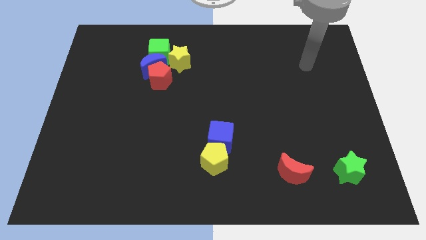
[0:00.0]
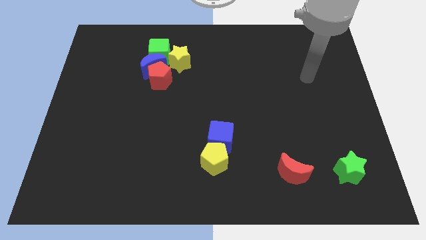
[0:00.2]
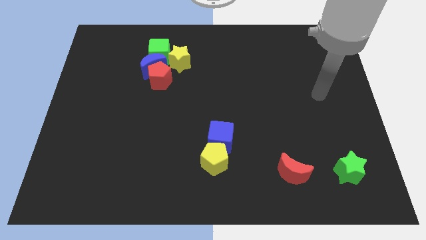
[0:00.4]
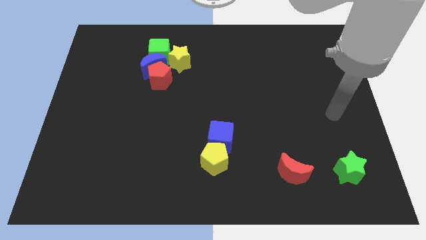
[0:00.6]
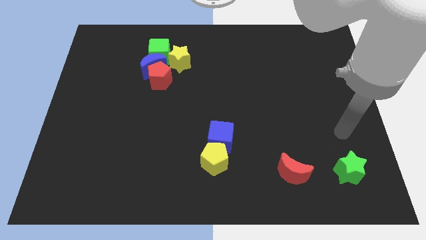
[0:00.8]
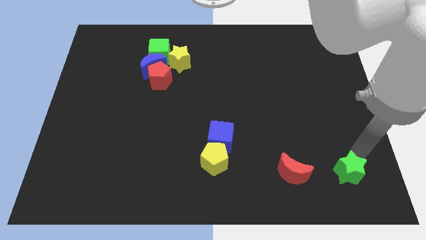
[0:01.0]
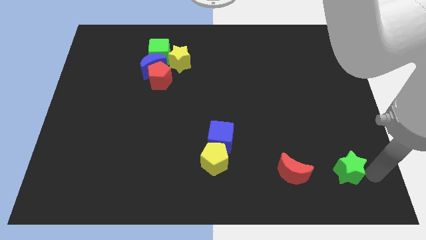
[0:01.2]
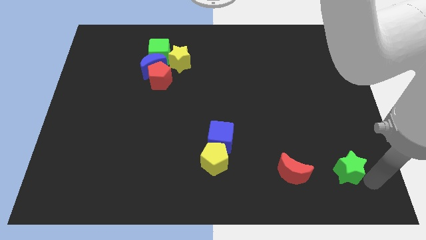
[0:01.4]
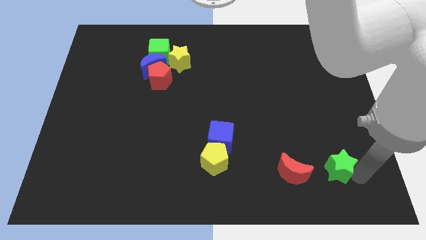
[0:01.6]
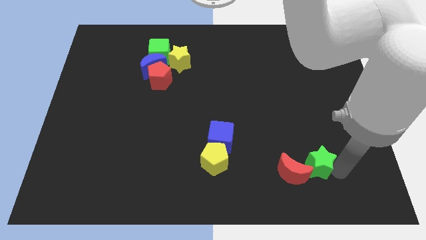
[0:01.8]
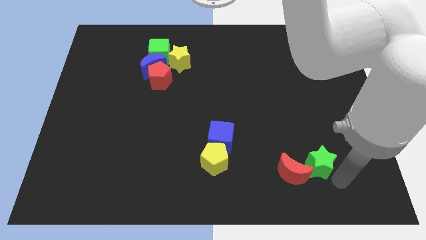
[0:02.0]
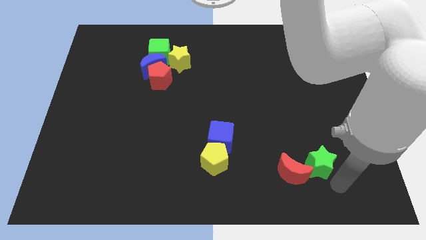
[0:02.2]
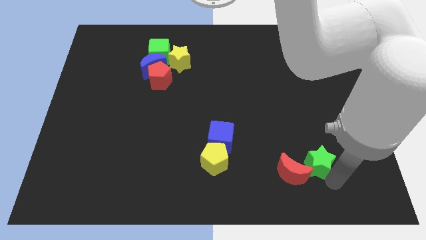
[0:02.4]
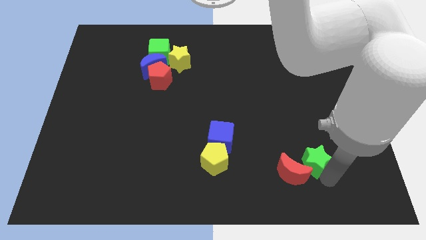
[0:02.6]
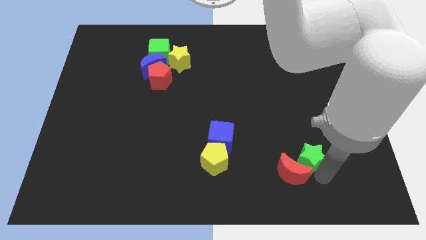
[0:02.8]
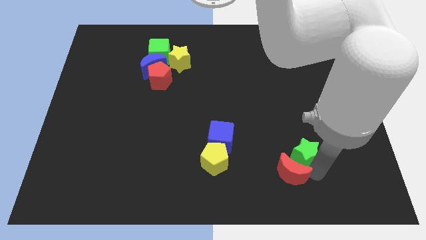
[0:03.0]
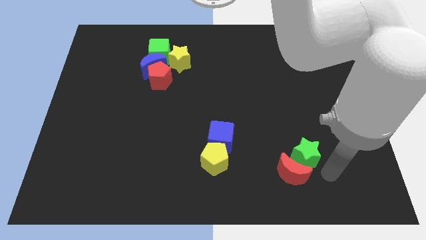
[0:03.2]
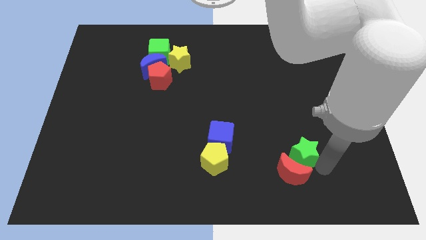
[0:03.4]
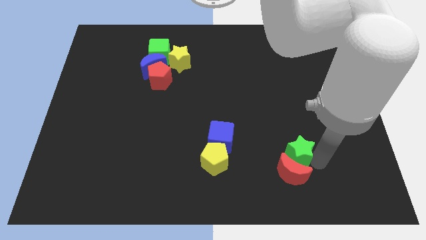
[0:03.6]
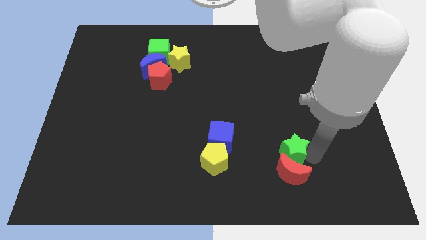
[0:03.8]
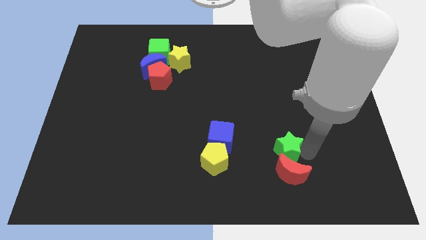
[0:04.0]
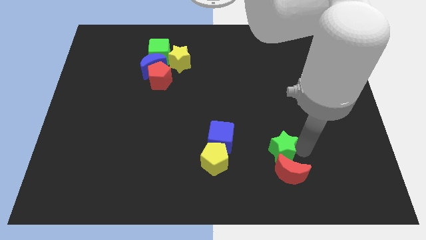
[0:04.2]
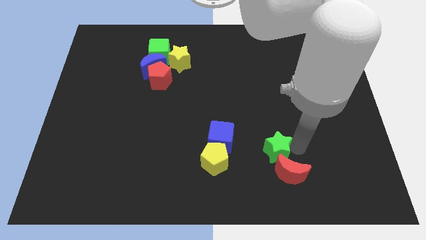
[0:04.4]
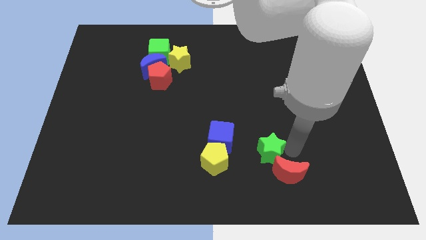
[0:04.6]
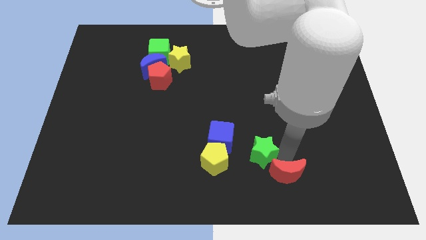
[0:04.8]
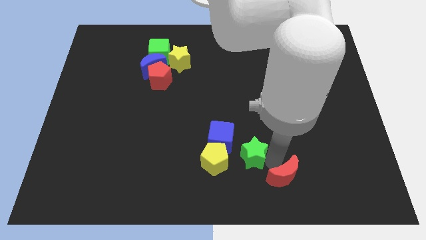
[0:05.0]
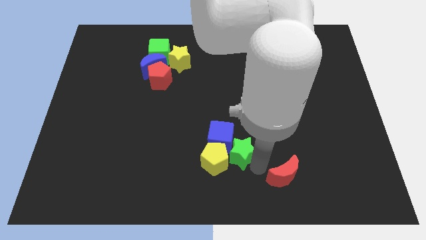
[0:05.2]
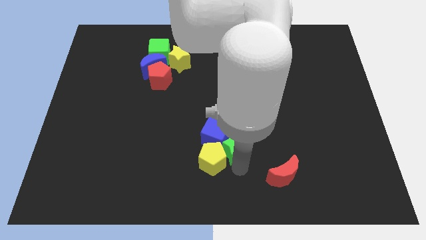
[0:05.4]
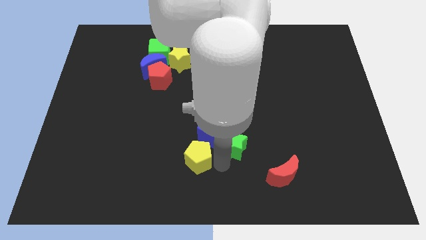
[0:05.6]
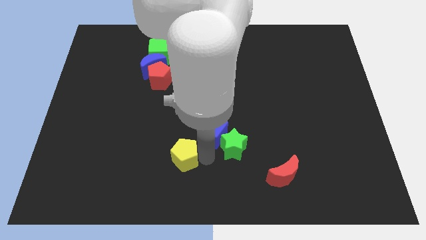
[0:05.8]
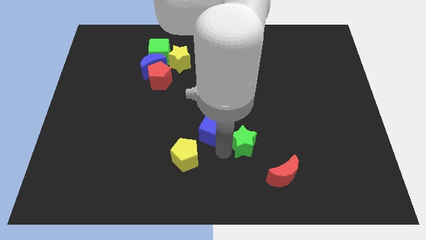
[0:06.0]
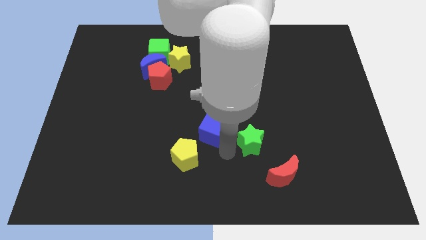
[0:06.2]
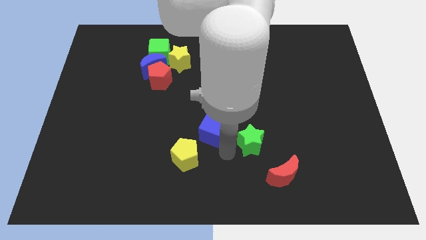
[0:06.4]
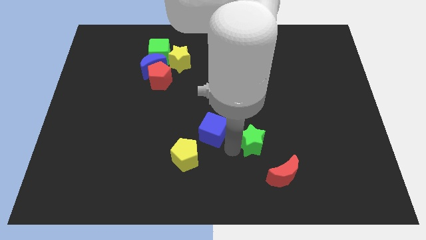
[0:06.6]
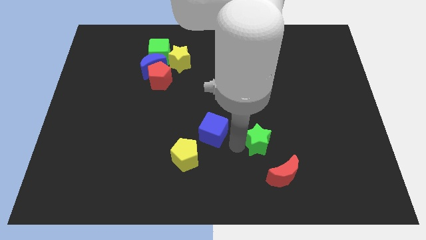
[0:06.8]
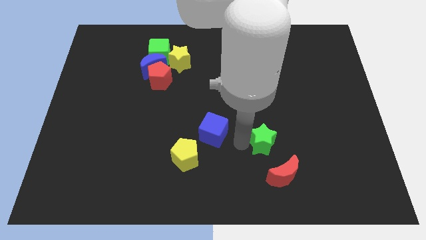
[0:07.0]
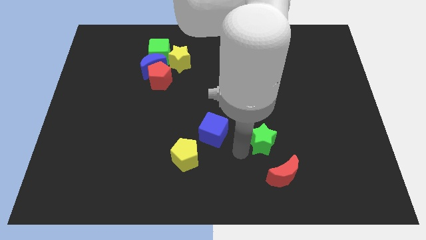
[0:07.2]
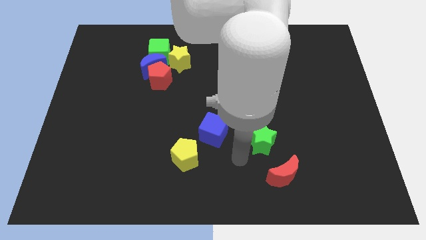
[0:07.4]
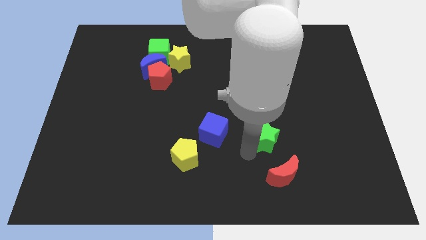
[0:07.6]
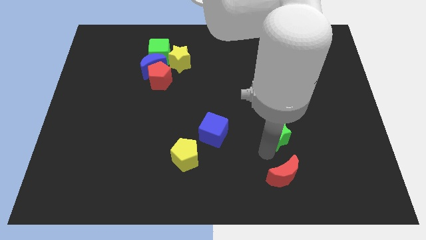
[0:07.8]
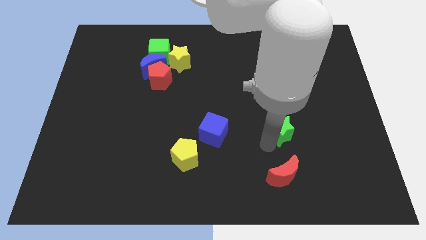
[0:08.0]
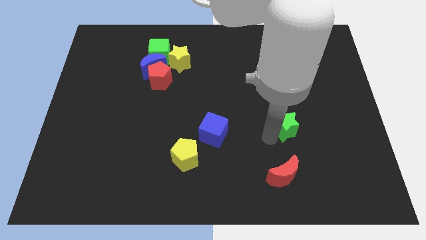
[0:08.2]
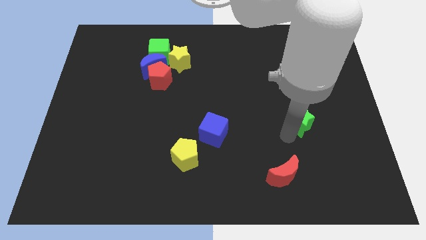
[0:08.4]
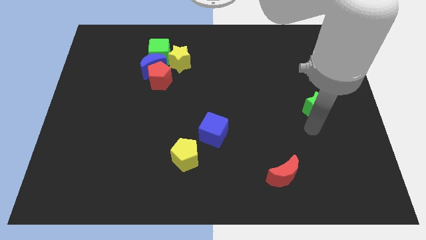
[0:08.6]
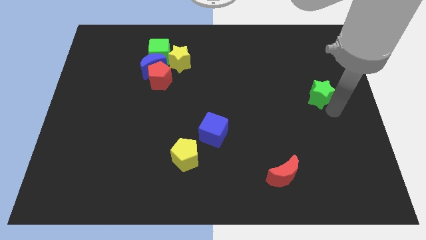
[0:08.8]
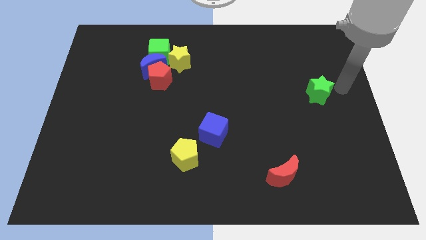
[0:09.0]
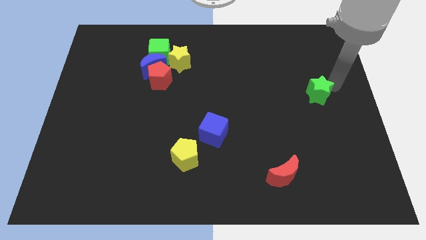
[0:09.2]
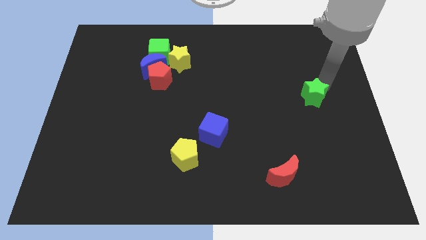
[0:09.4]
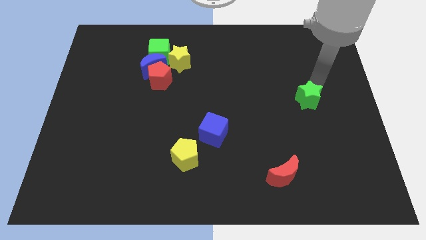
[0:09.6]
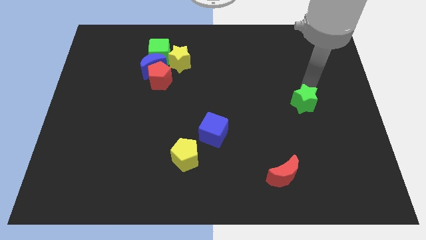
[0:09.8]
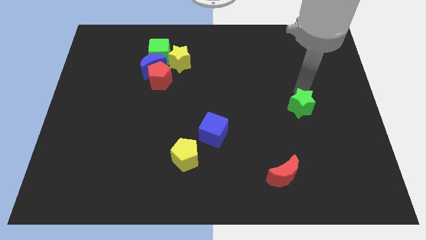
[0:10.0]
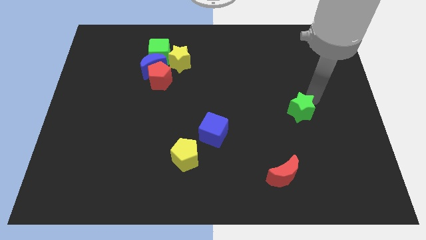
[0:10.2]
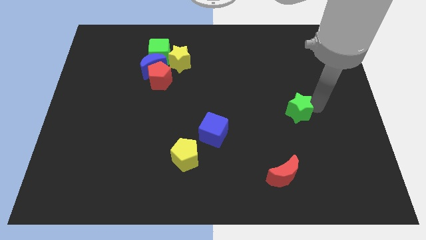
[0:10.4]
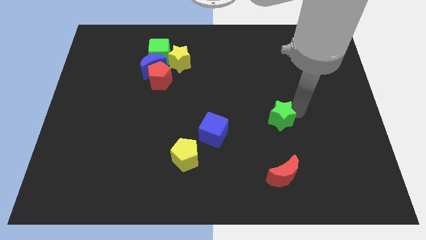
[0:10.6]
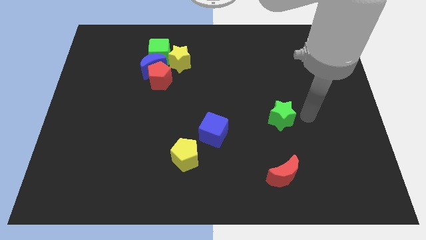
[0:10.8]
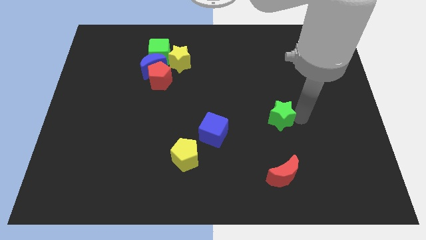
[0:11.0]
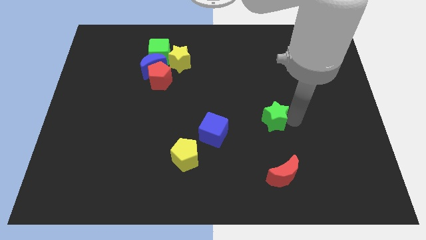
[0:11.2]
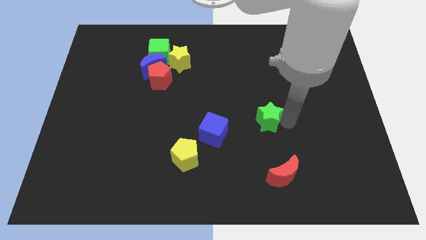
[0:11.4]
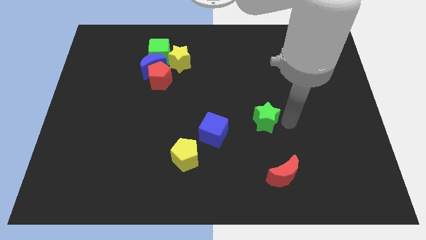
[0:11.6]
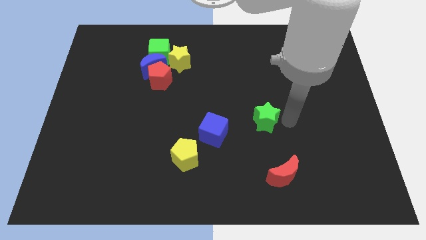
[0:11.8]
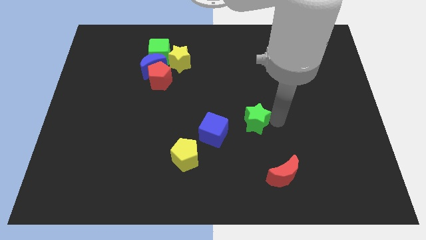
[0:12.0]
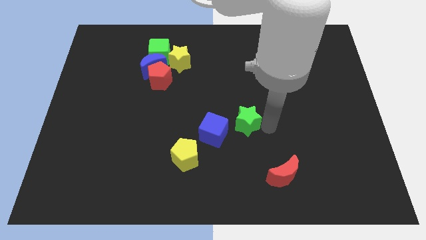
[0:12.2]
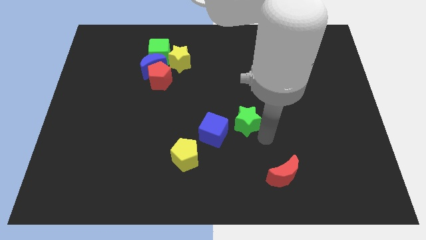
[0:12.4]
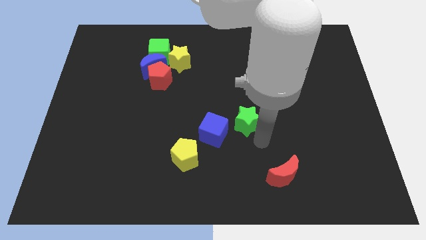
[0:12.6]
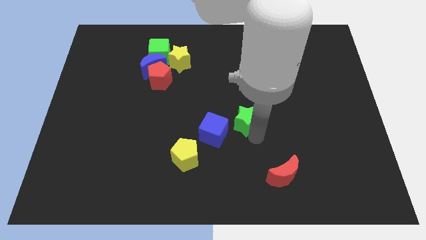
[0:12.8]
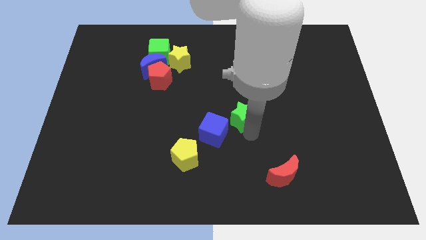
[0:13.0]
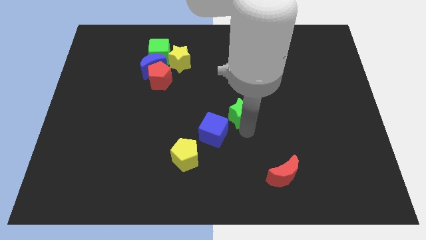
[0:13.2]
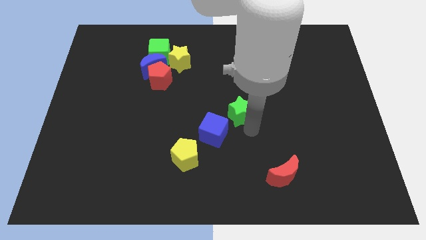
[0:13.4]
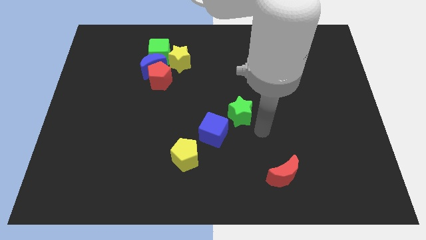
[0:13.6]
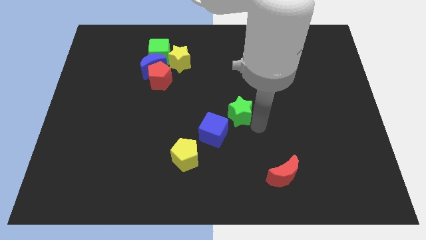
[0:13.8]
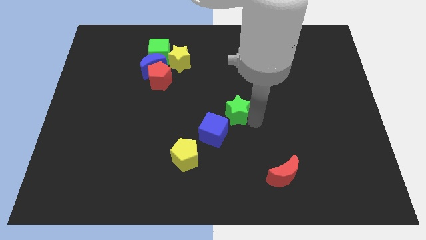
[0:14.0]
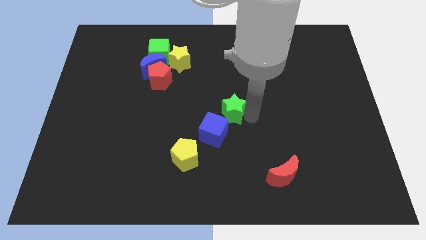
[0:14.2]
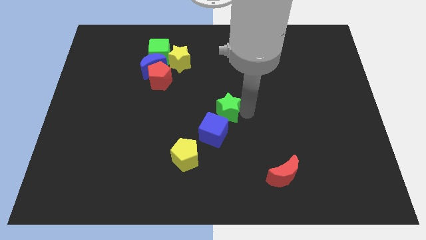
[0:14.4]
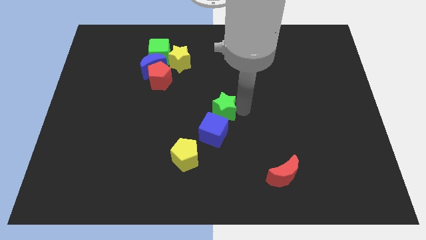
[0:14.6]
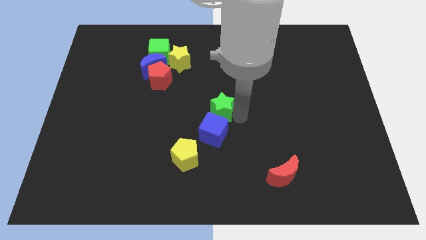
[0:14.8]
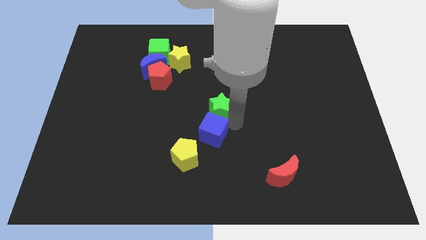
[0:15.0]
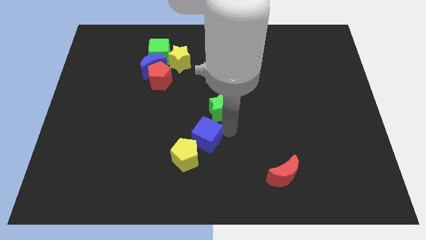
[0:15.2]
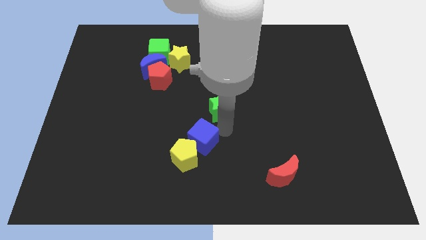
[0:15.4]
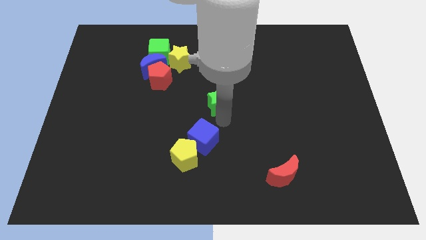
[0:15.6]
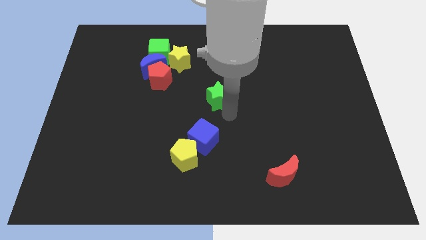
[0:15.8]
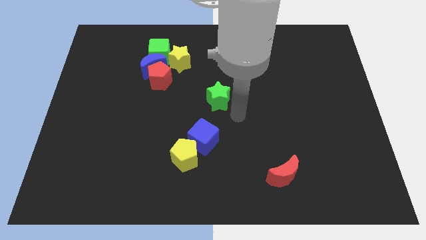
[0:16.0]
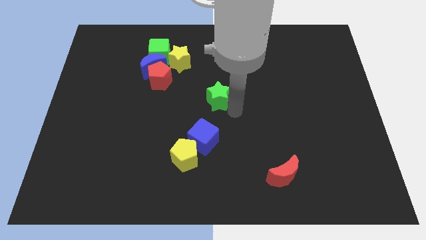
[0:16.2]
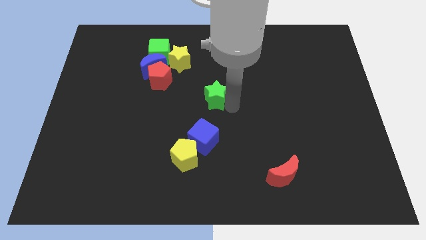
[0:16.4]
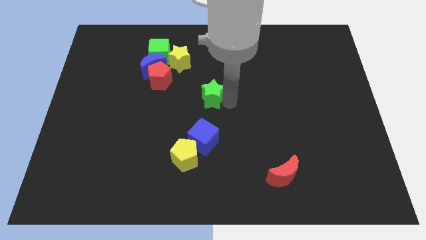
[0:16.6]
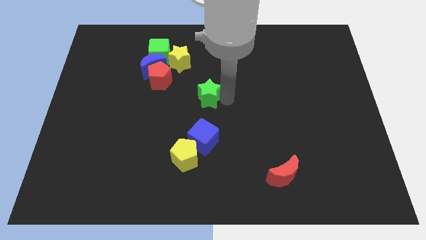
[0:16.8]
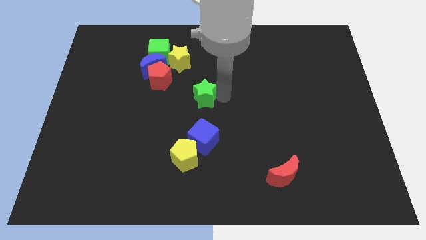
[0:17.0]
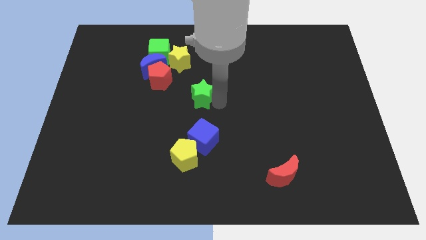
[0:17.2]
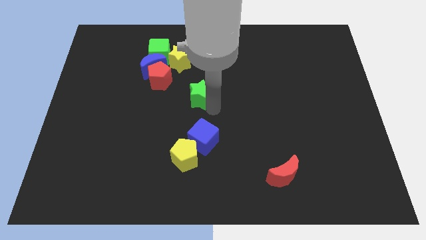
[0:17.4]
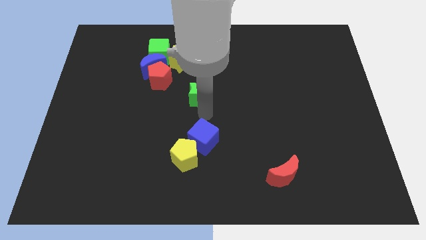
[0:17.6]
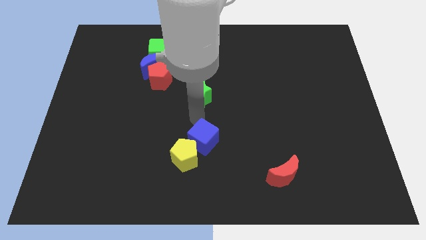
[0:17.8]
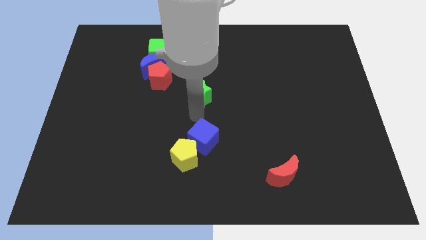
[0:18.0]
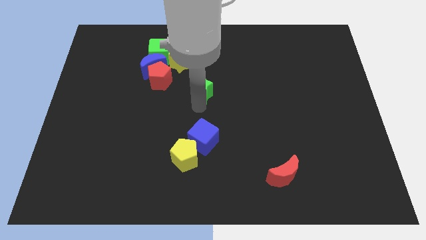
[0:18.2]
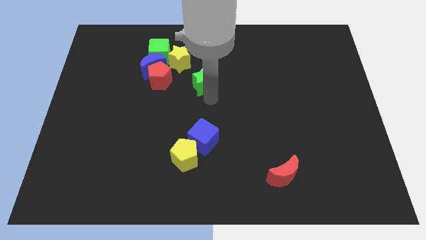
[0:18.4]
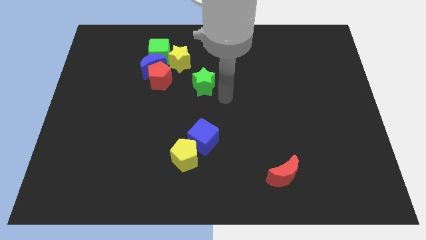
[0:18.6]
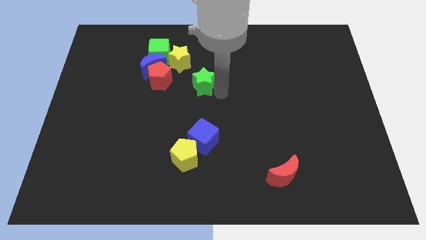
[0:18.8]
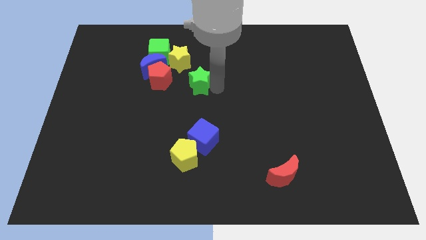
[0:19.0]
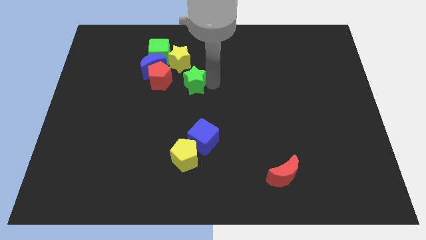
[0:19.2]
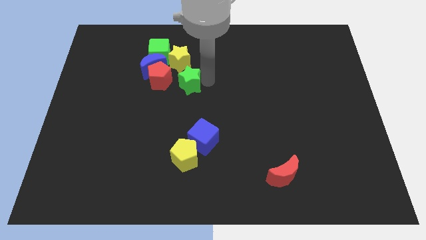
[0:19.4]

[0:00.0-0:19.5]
slide the green star to the bottom right side of the green cube
